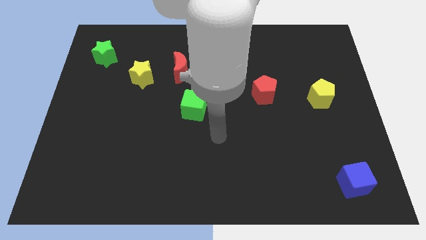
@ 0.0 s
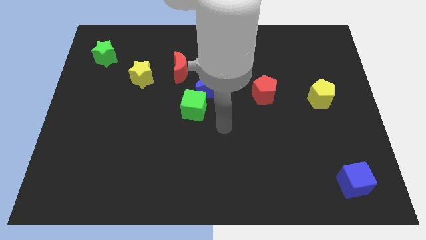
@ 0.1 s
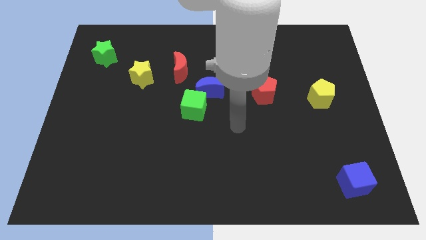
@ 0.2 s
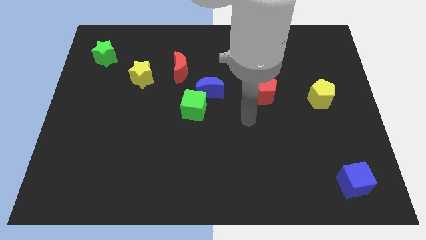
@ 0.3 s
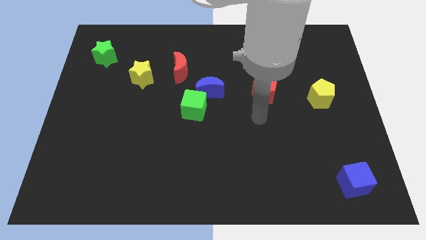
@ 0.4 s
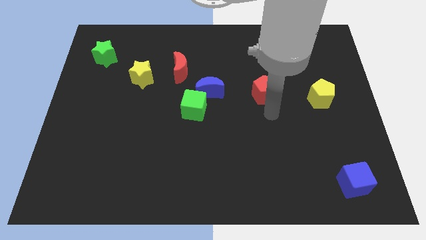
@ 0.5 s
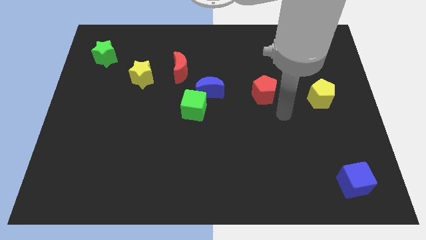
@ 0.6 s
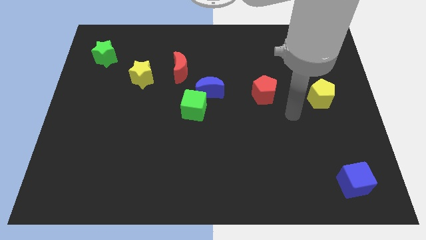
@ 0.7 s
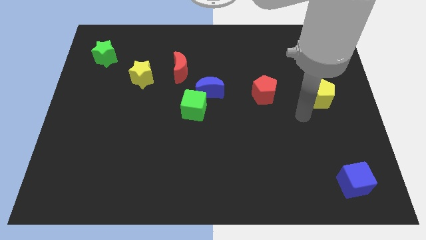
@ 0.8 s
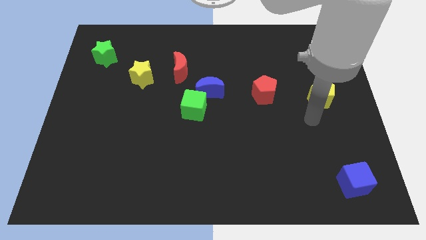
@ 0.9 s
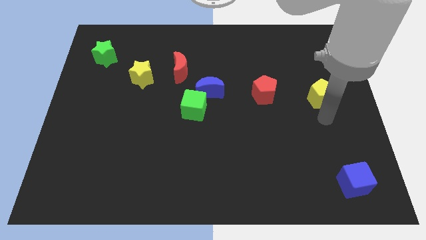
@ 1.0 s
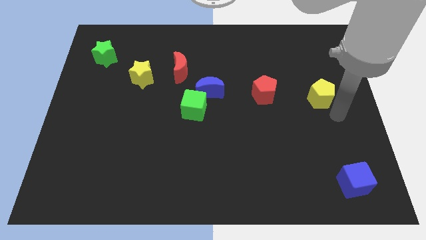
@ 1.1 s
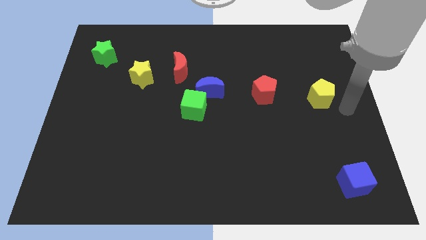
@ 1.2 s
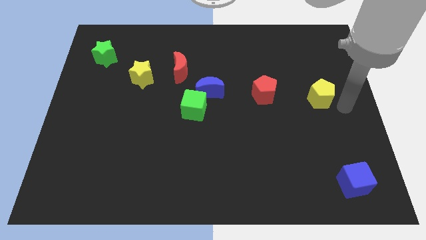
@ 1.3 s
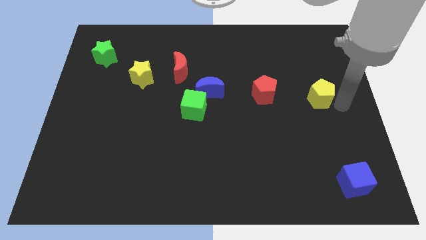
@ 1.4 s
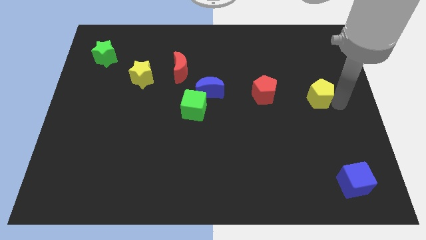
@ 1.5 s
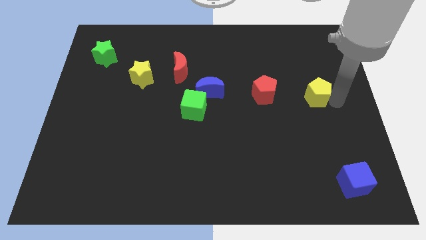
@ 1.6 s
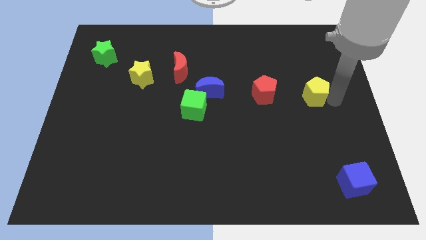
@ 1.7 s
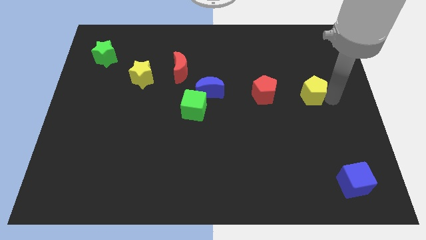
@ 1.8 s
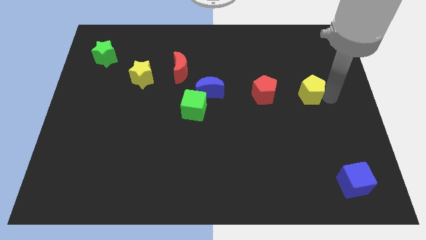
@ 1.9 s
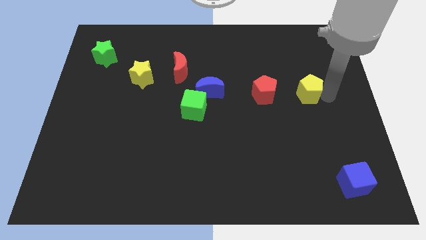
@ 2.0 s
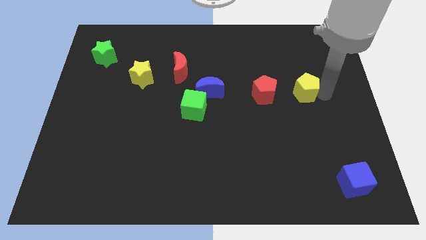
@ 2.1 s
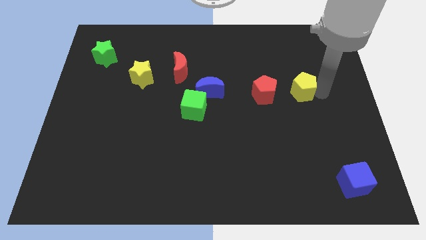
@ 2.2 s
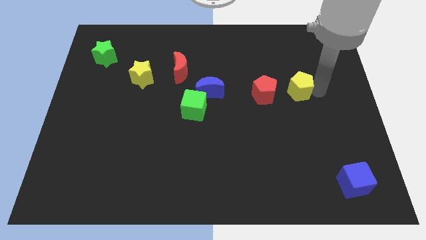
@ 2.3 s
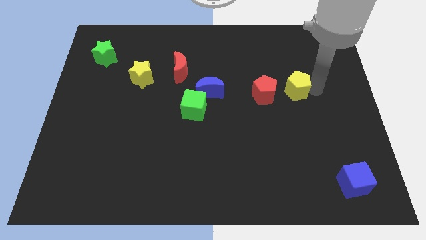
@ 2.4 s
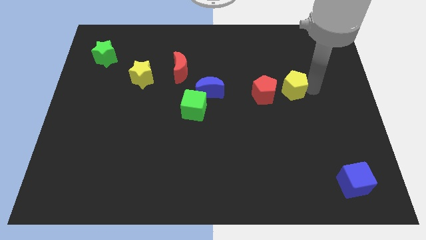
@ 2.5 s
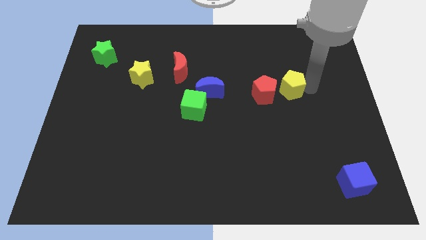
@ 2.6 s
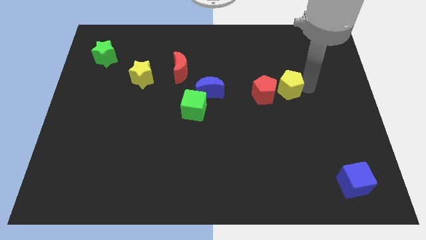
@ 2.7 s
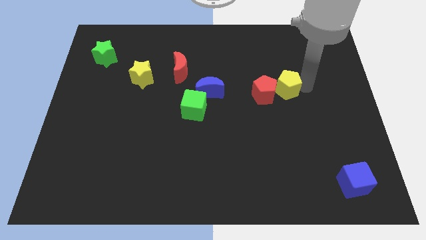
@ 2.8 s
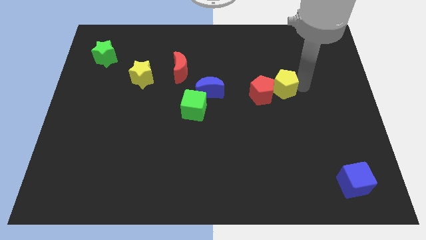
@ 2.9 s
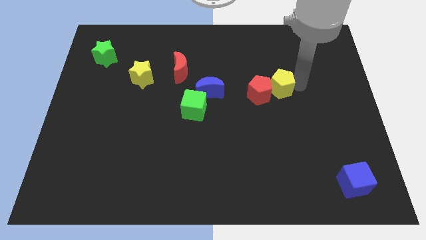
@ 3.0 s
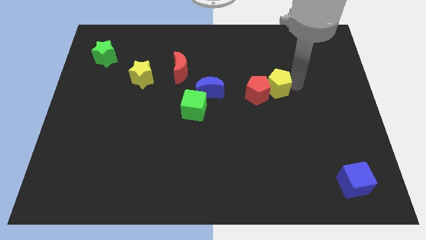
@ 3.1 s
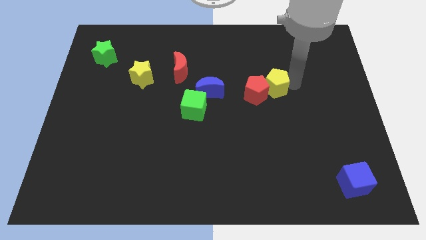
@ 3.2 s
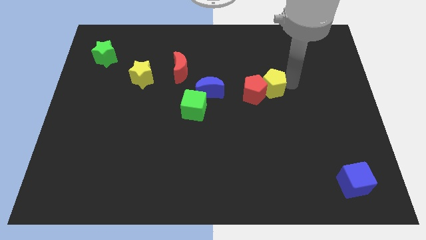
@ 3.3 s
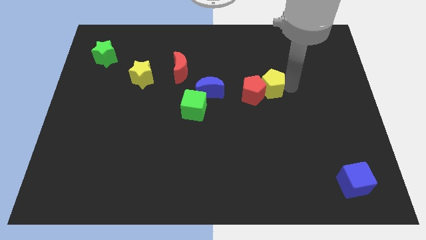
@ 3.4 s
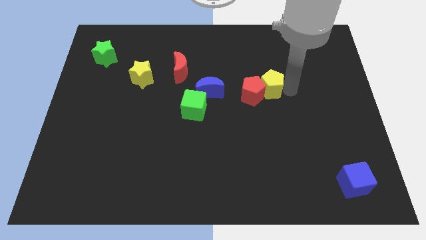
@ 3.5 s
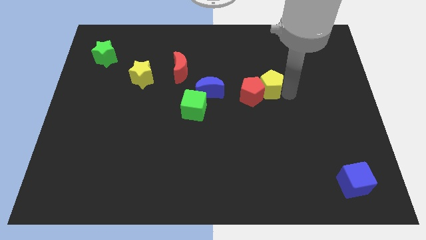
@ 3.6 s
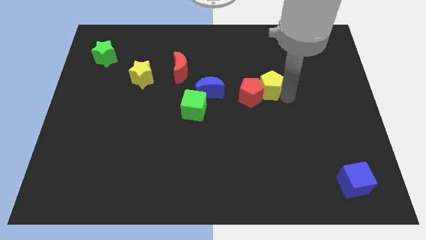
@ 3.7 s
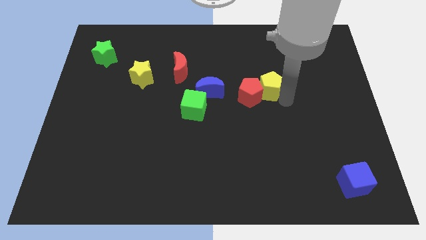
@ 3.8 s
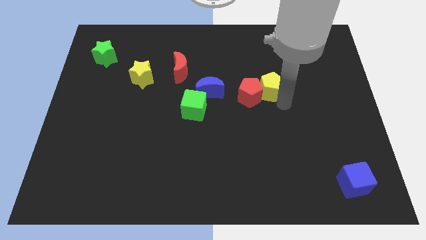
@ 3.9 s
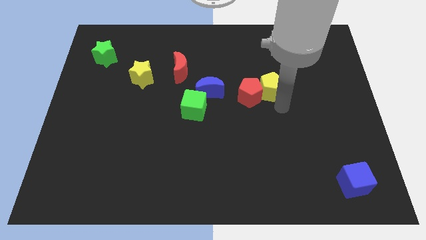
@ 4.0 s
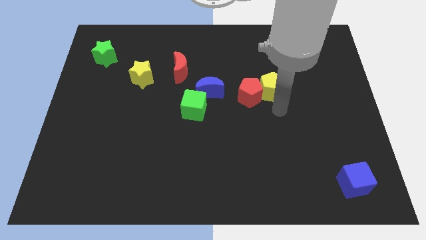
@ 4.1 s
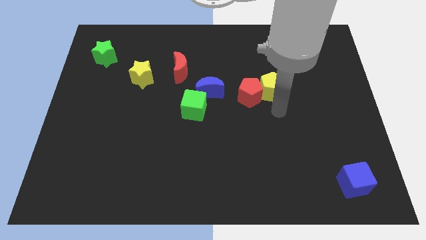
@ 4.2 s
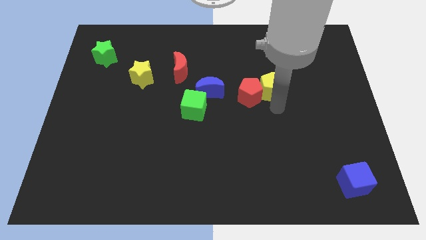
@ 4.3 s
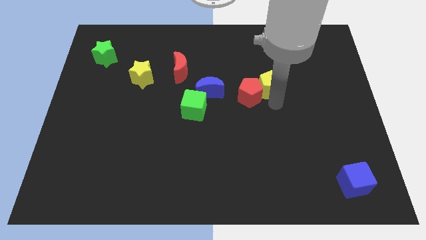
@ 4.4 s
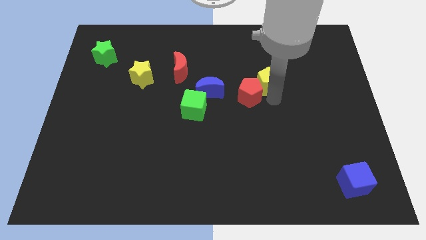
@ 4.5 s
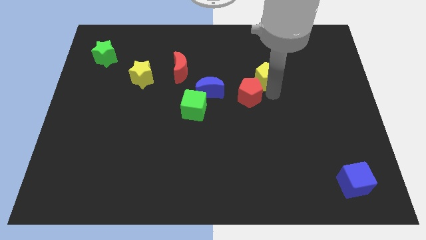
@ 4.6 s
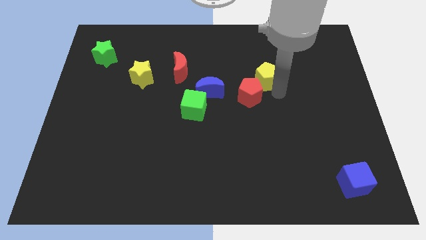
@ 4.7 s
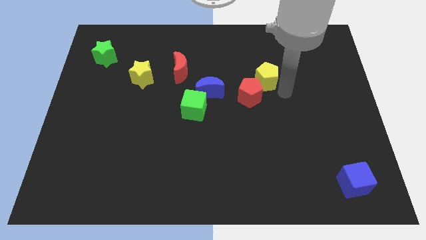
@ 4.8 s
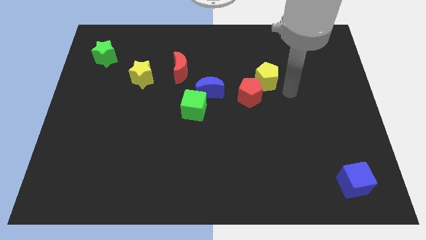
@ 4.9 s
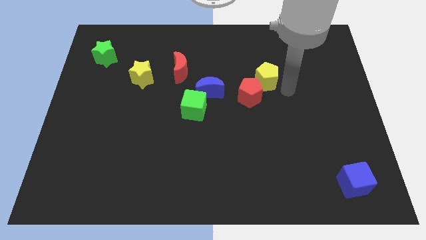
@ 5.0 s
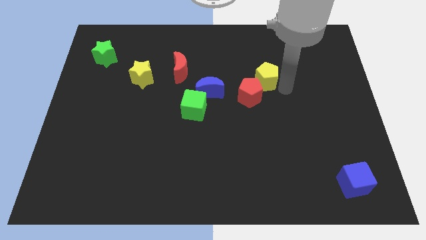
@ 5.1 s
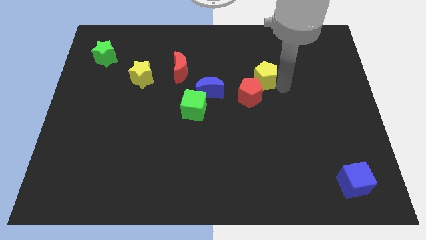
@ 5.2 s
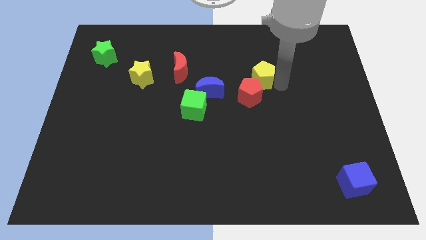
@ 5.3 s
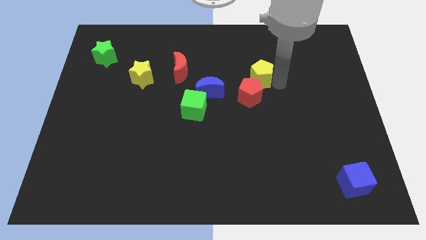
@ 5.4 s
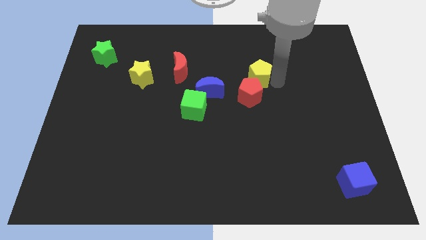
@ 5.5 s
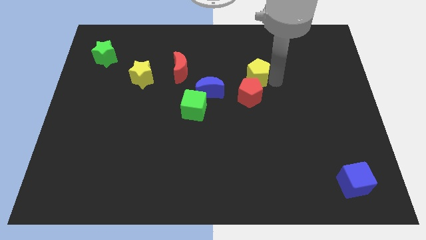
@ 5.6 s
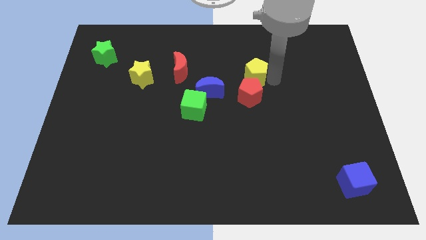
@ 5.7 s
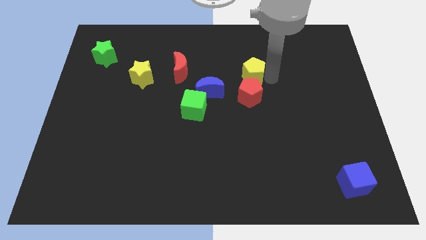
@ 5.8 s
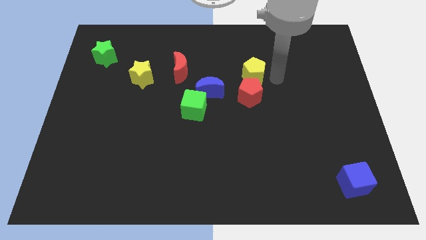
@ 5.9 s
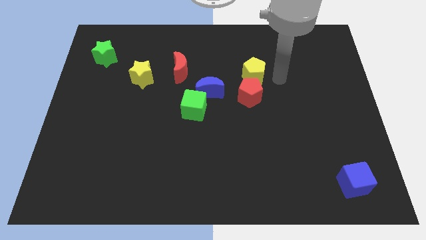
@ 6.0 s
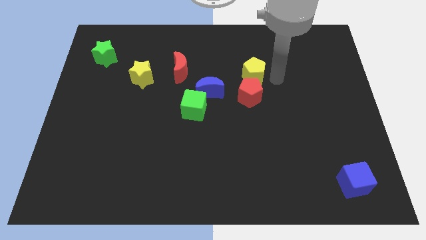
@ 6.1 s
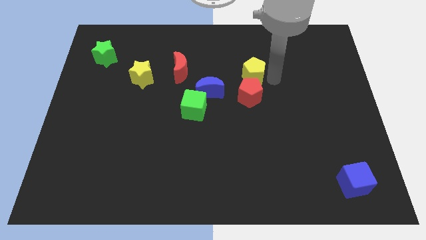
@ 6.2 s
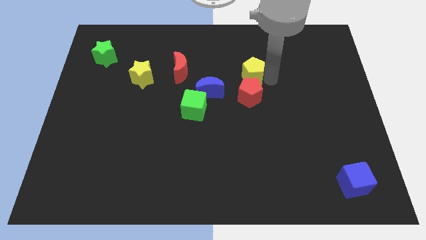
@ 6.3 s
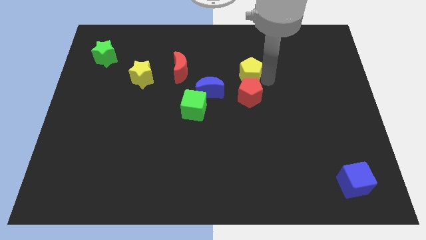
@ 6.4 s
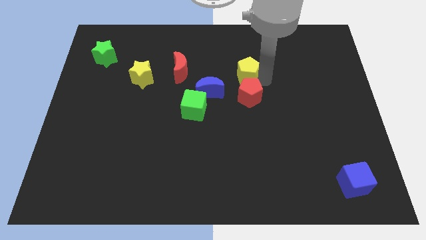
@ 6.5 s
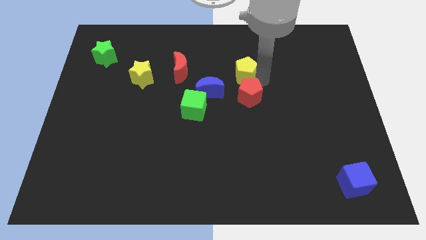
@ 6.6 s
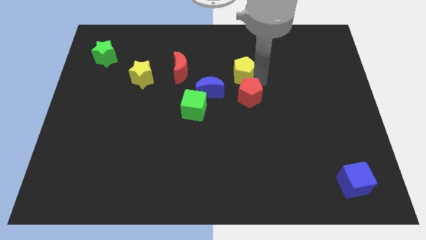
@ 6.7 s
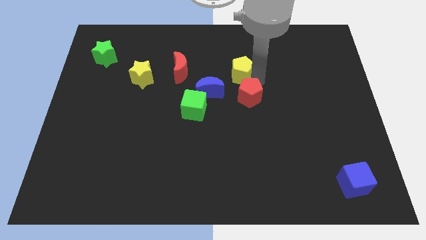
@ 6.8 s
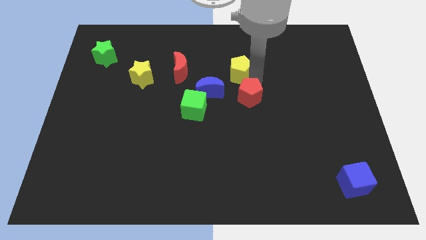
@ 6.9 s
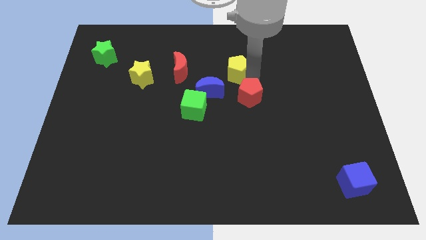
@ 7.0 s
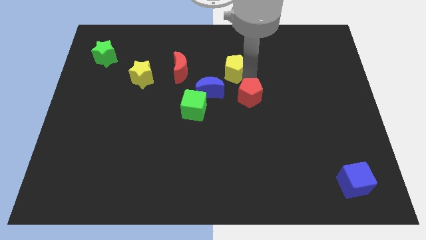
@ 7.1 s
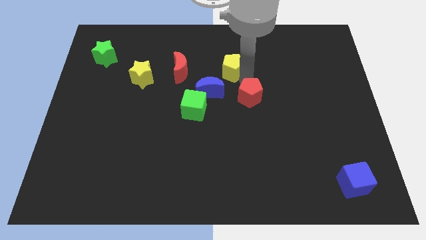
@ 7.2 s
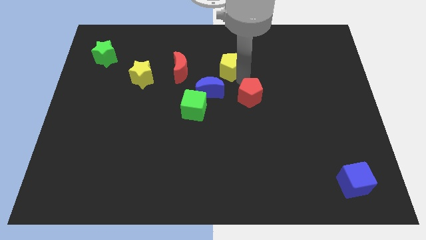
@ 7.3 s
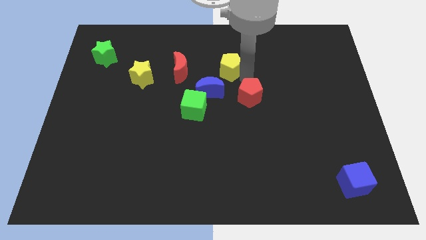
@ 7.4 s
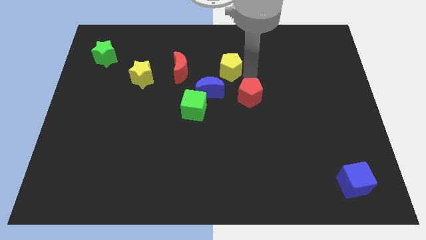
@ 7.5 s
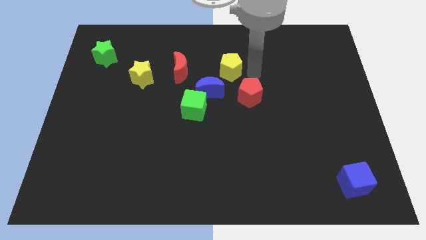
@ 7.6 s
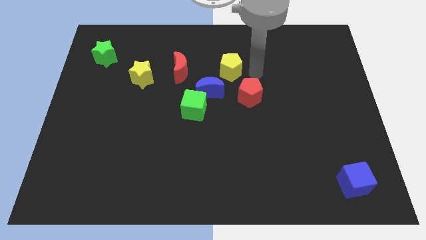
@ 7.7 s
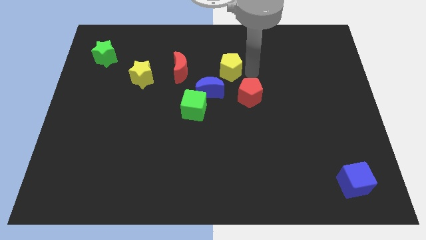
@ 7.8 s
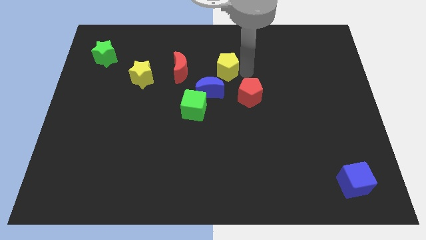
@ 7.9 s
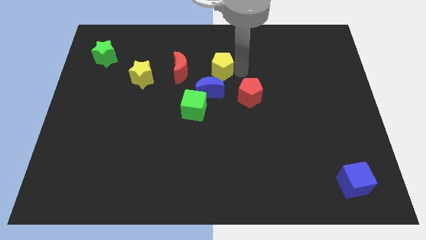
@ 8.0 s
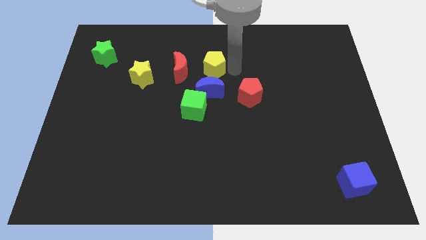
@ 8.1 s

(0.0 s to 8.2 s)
slide the yellow pentagon to the top side of the green cube
